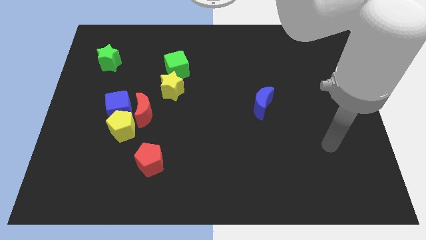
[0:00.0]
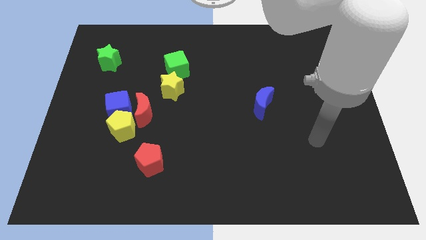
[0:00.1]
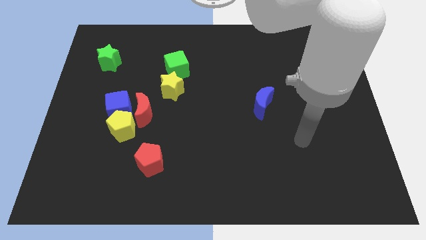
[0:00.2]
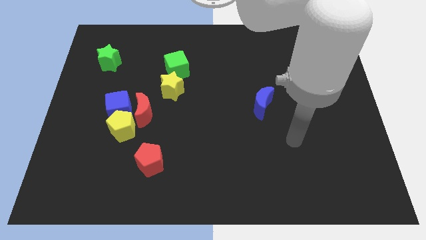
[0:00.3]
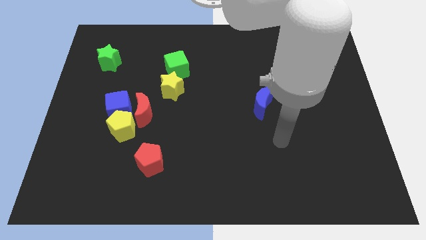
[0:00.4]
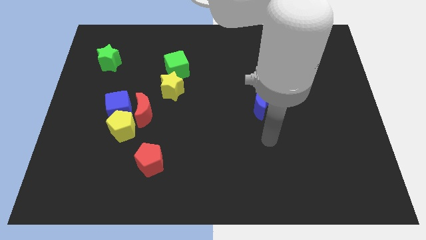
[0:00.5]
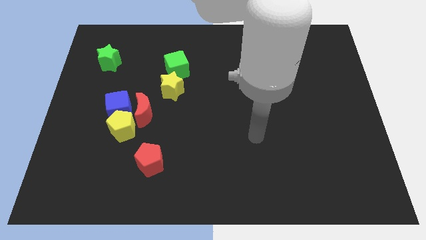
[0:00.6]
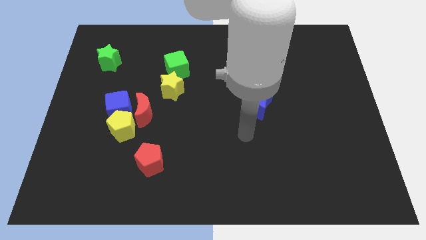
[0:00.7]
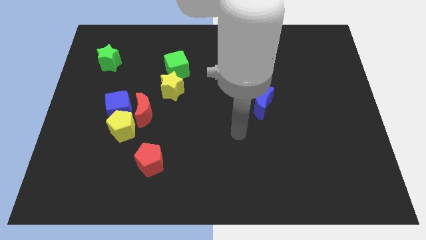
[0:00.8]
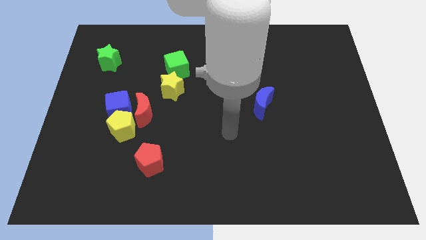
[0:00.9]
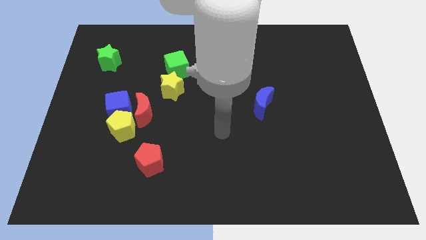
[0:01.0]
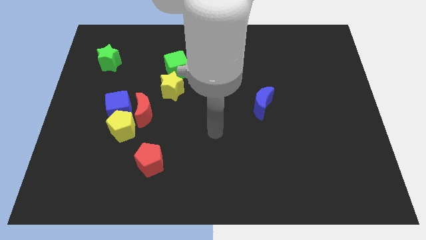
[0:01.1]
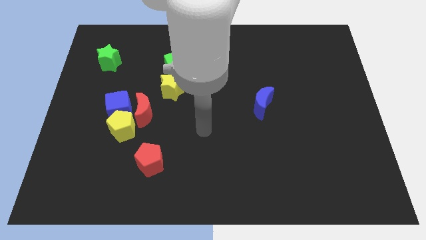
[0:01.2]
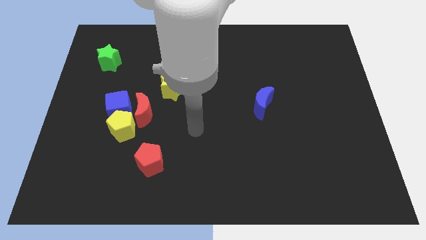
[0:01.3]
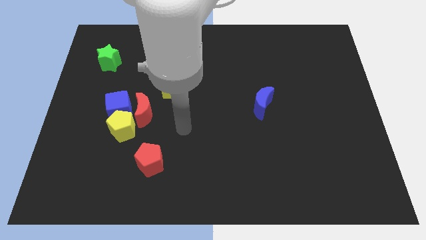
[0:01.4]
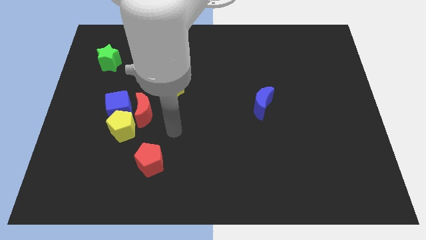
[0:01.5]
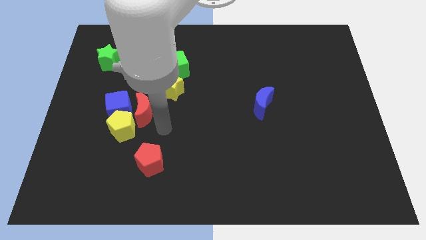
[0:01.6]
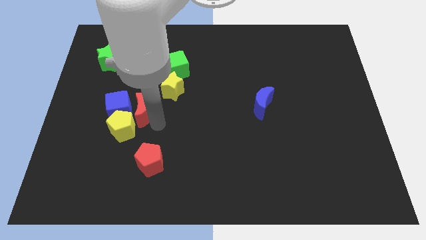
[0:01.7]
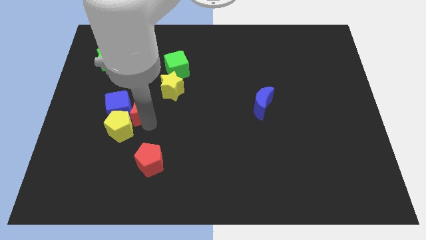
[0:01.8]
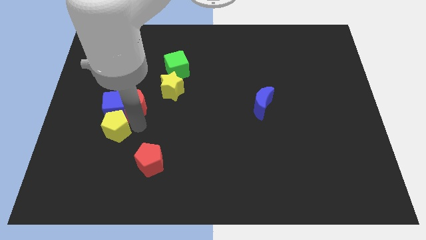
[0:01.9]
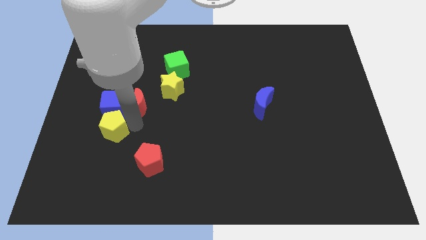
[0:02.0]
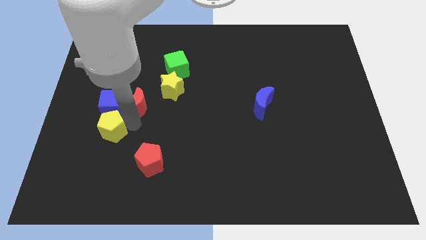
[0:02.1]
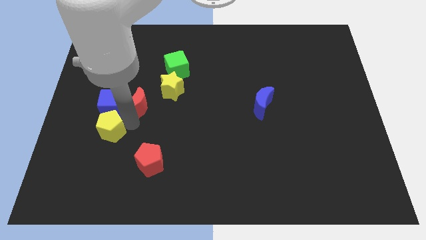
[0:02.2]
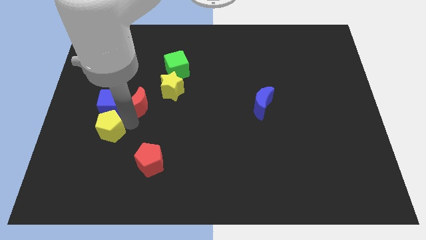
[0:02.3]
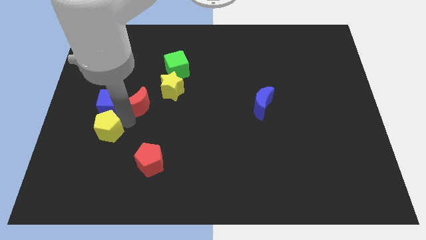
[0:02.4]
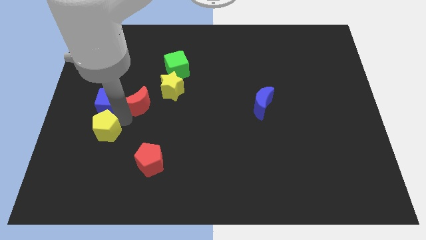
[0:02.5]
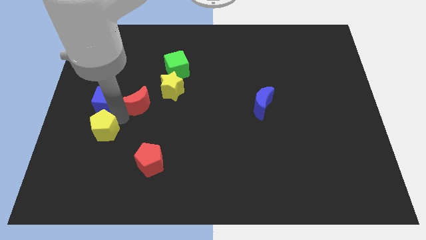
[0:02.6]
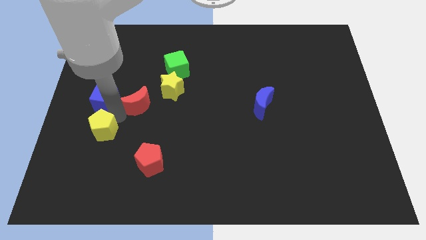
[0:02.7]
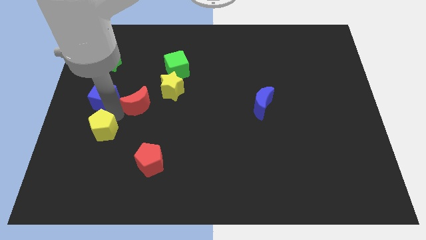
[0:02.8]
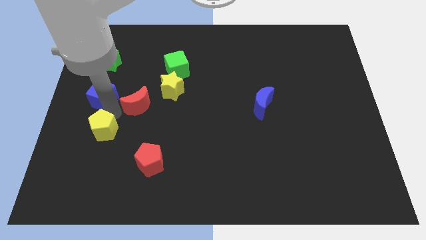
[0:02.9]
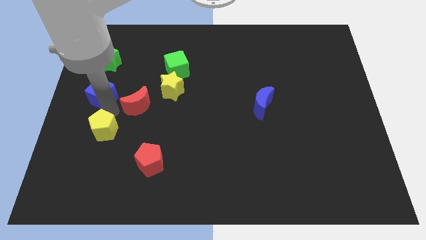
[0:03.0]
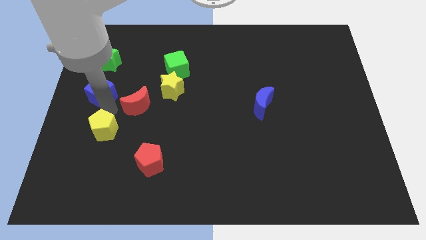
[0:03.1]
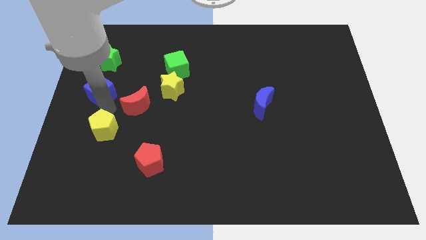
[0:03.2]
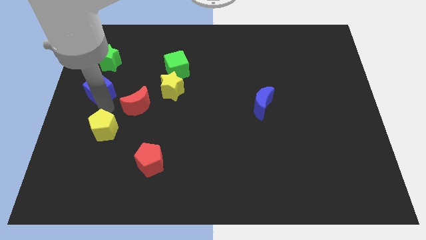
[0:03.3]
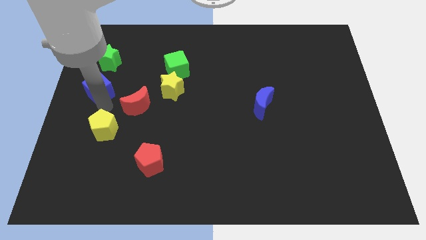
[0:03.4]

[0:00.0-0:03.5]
pull the blue cube apart from the yellow pentagon and red moon

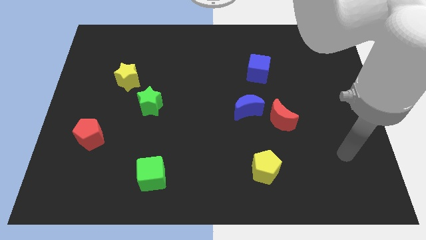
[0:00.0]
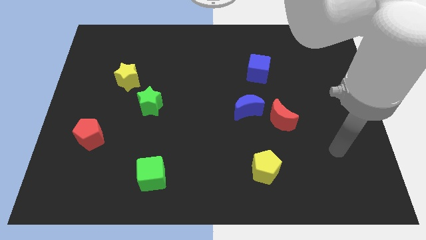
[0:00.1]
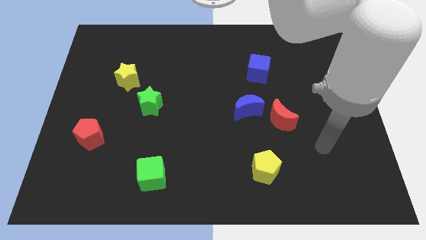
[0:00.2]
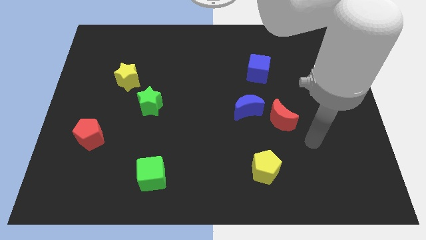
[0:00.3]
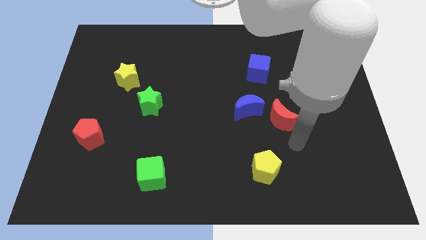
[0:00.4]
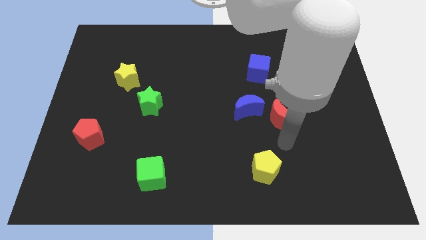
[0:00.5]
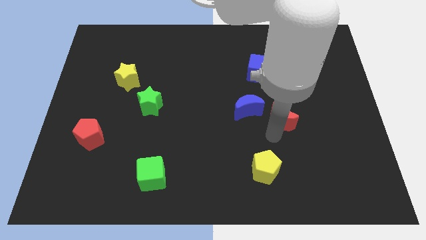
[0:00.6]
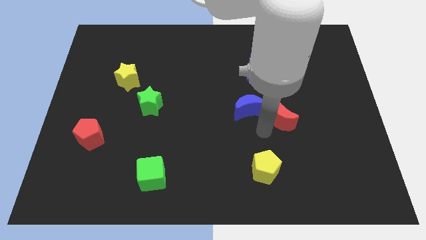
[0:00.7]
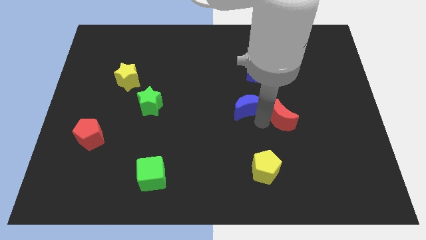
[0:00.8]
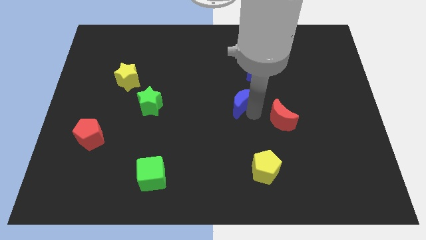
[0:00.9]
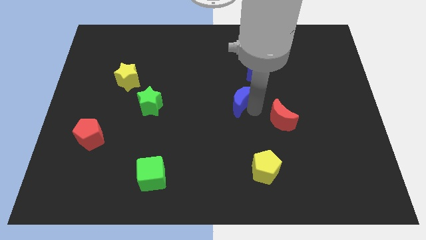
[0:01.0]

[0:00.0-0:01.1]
pull the red moon apart from the blue moon

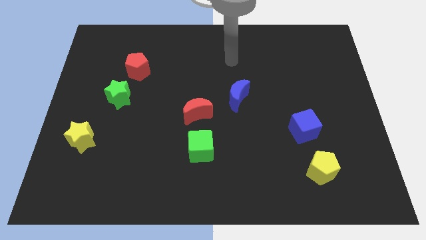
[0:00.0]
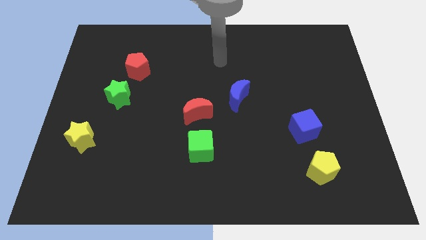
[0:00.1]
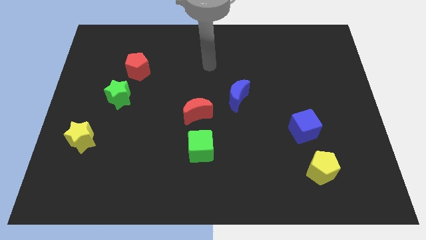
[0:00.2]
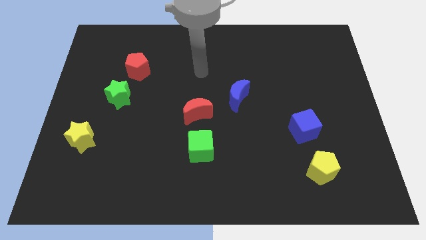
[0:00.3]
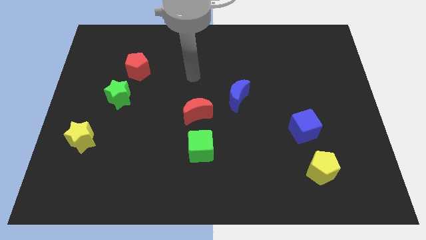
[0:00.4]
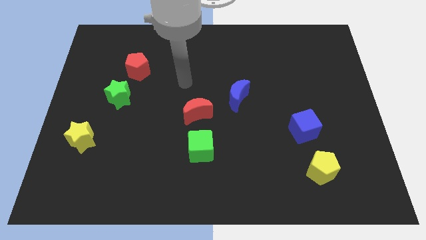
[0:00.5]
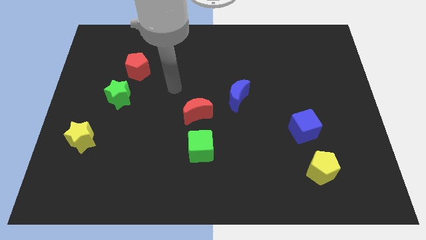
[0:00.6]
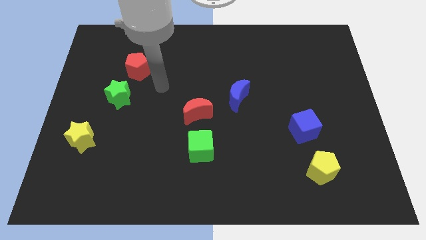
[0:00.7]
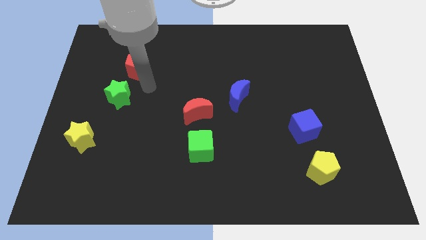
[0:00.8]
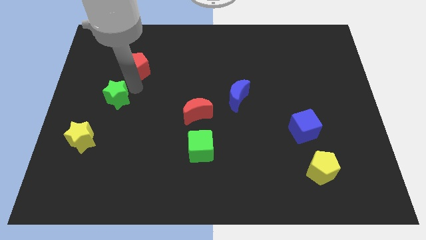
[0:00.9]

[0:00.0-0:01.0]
separate the red pentagon from the green star

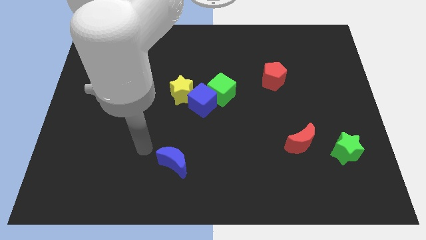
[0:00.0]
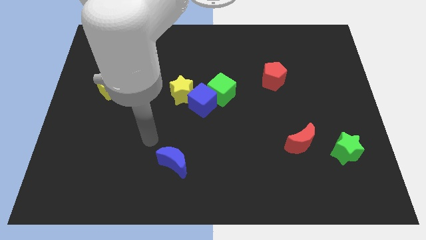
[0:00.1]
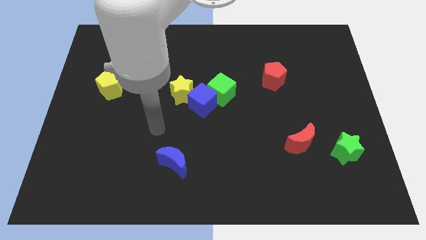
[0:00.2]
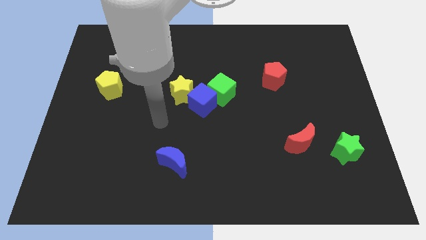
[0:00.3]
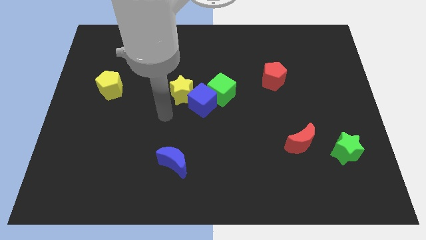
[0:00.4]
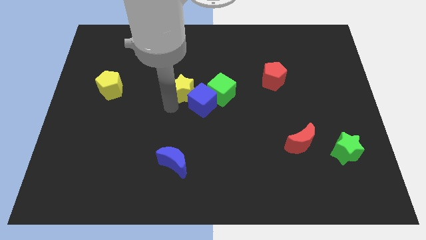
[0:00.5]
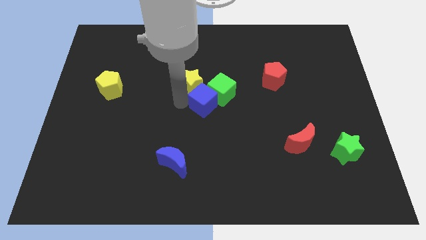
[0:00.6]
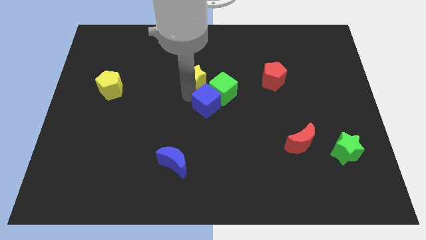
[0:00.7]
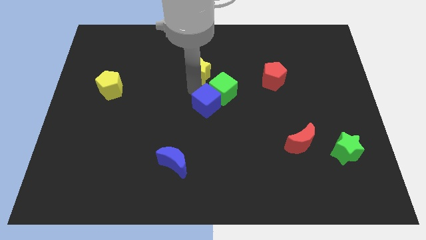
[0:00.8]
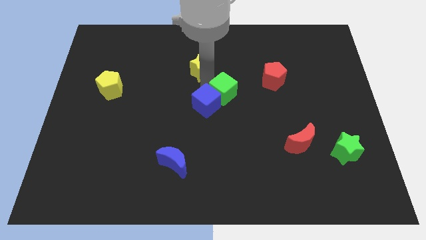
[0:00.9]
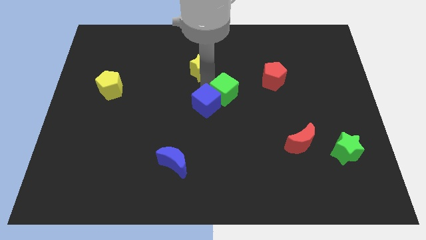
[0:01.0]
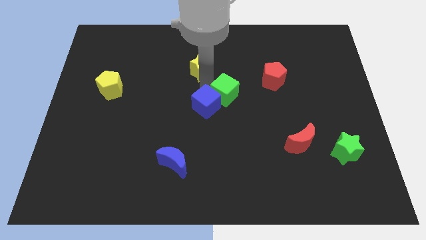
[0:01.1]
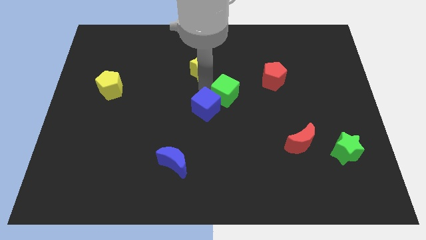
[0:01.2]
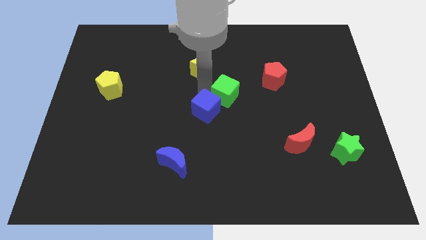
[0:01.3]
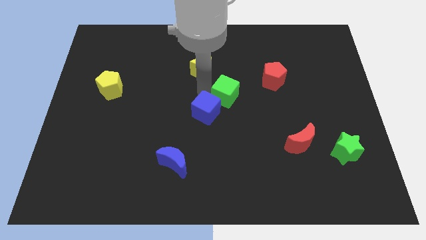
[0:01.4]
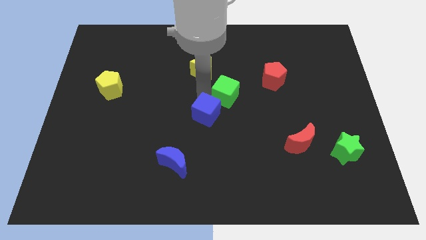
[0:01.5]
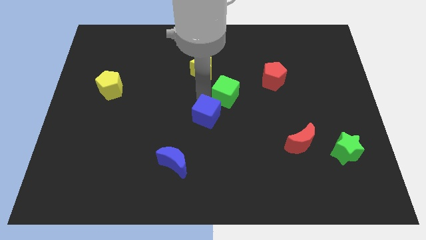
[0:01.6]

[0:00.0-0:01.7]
move the blue cube away from the green cube and yellow star

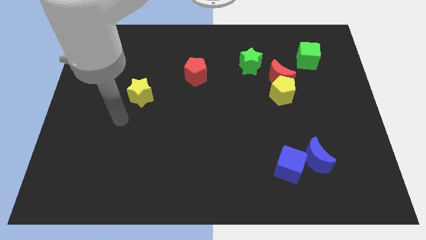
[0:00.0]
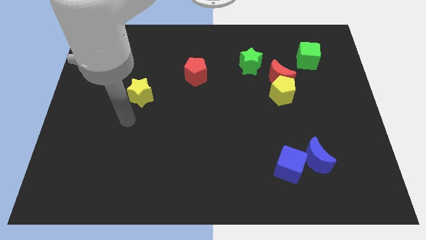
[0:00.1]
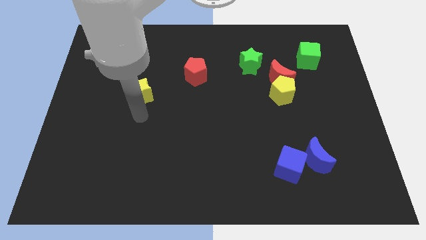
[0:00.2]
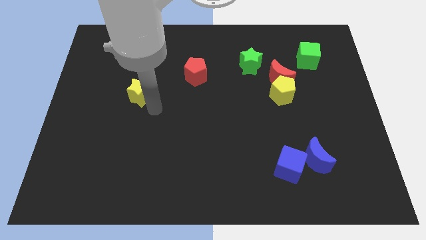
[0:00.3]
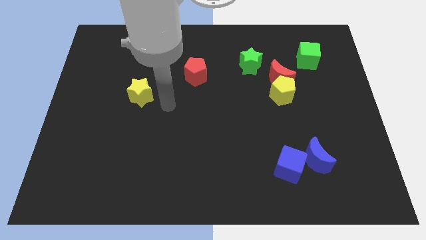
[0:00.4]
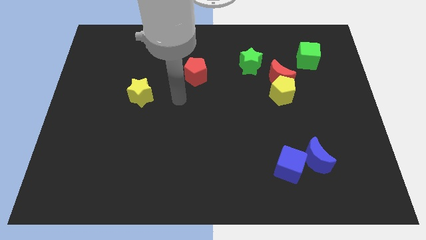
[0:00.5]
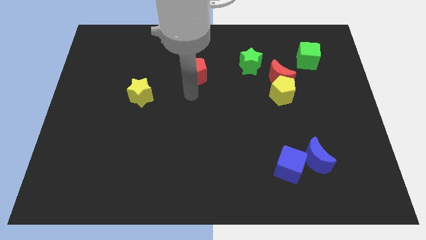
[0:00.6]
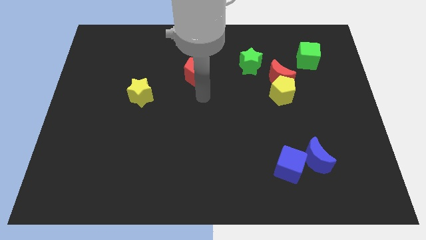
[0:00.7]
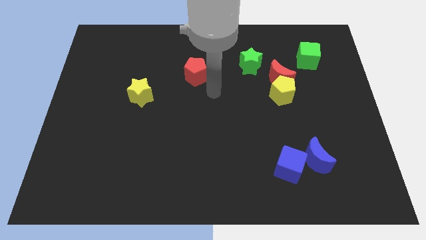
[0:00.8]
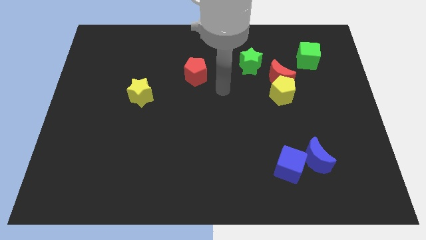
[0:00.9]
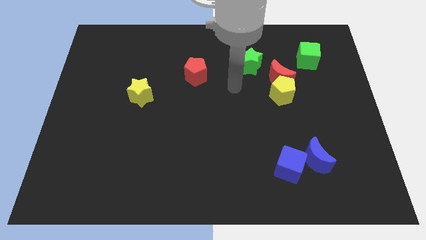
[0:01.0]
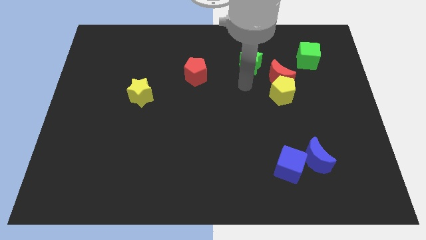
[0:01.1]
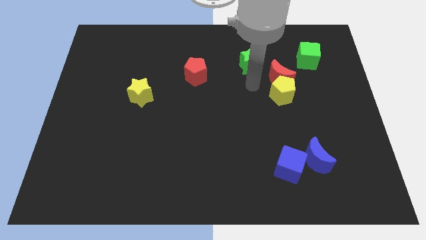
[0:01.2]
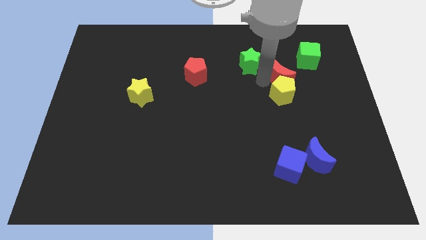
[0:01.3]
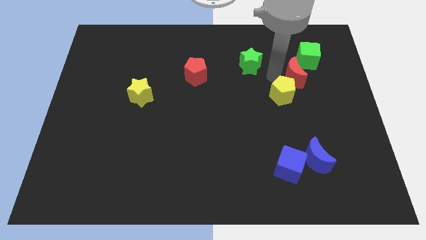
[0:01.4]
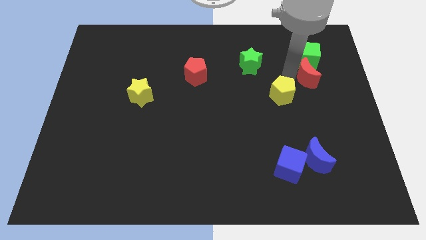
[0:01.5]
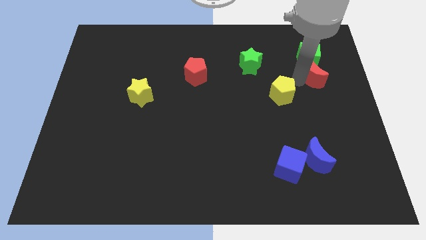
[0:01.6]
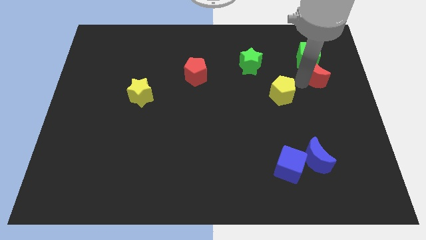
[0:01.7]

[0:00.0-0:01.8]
move the yellow pentagon away from the red moon
